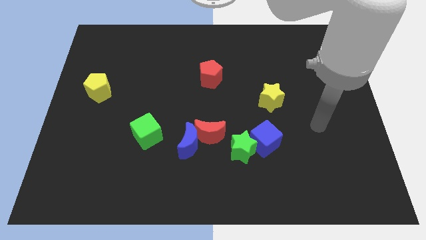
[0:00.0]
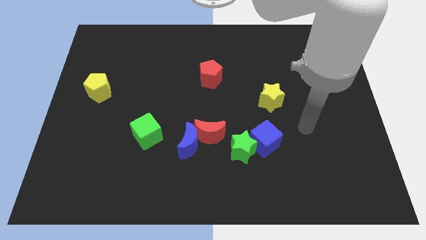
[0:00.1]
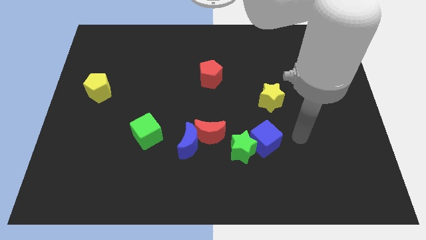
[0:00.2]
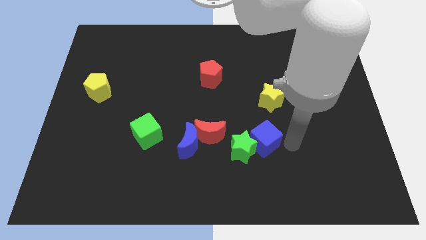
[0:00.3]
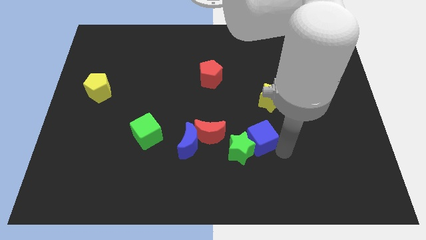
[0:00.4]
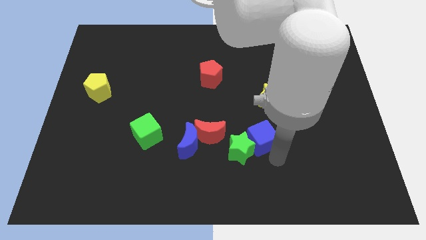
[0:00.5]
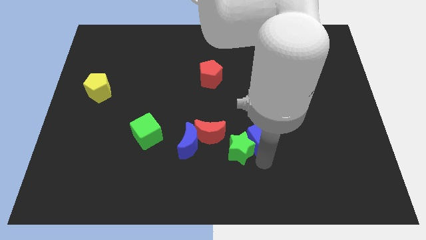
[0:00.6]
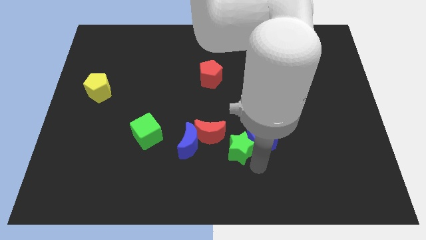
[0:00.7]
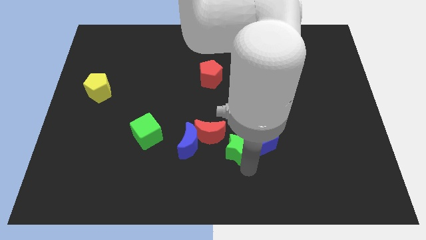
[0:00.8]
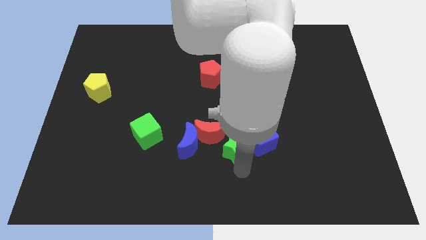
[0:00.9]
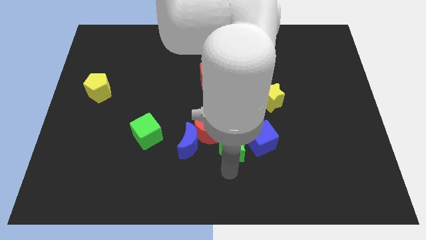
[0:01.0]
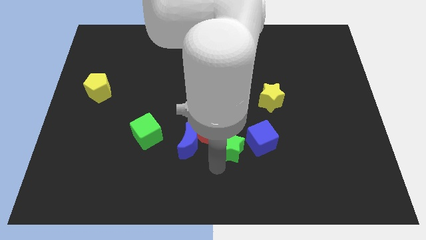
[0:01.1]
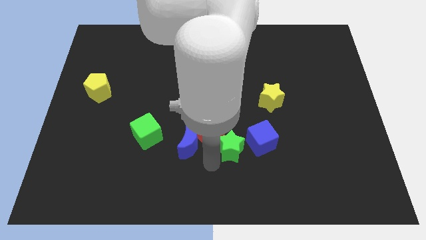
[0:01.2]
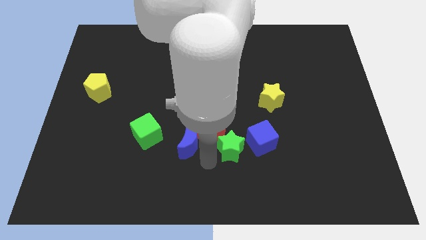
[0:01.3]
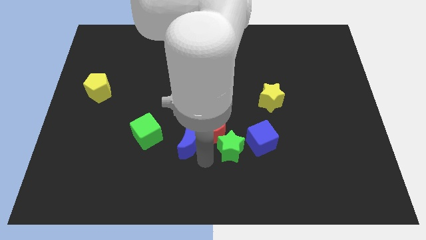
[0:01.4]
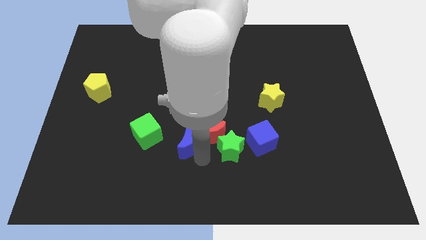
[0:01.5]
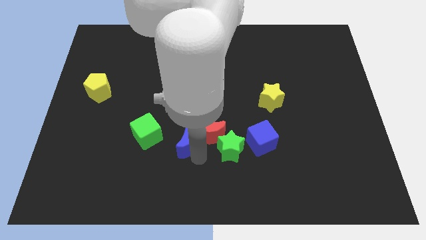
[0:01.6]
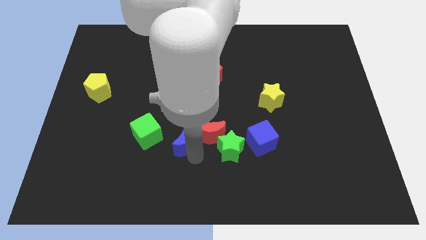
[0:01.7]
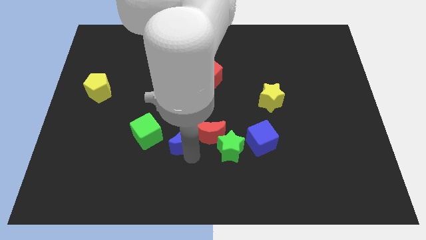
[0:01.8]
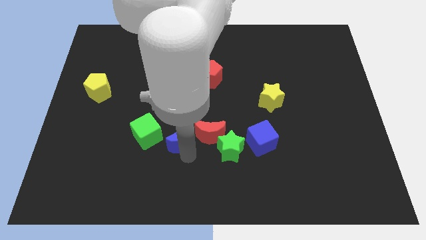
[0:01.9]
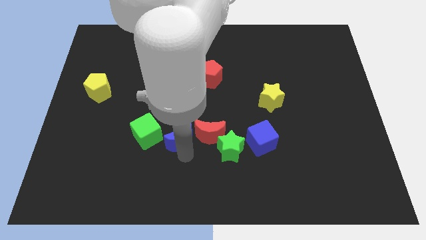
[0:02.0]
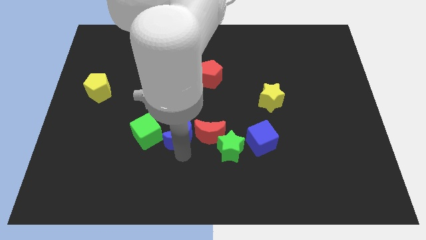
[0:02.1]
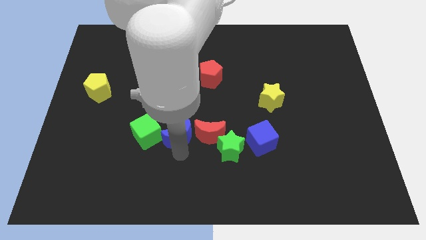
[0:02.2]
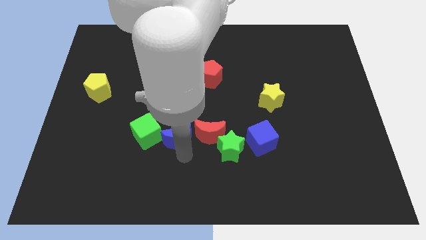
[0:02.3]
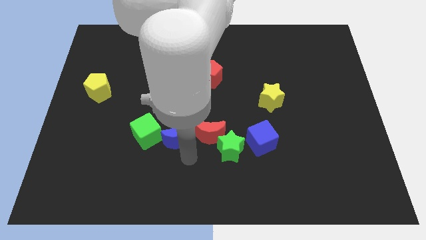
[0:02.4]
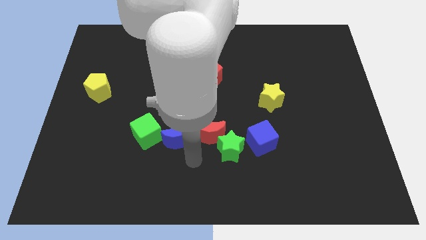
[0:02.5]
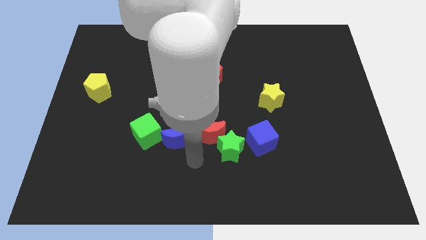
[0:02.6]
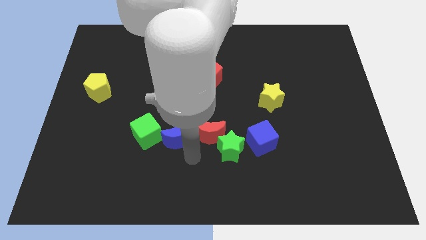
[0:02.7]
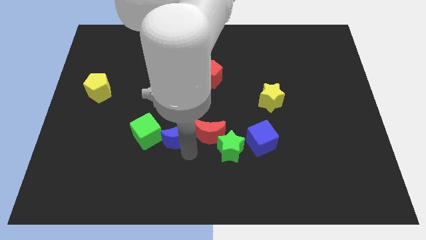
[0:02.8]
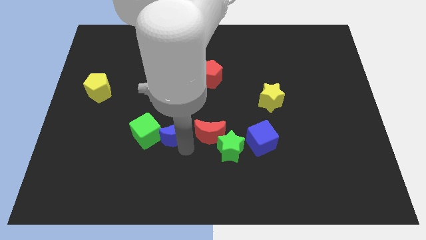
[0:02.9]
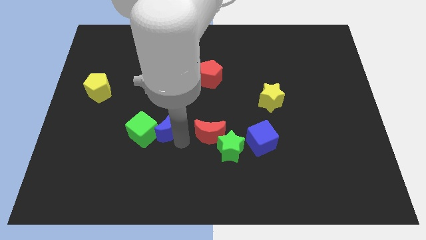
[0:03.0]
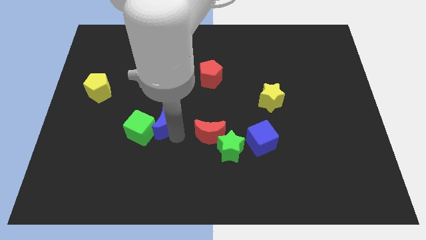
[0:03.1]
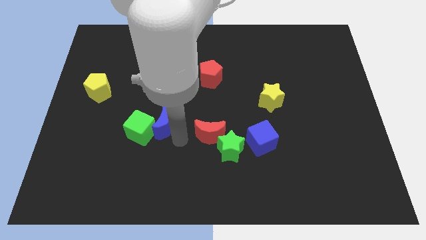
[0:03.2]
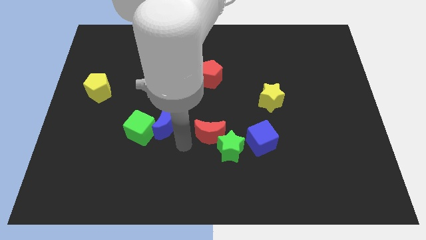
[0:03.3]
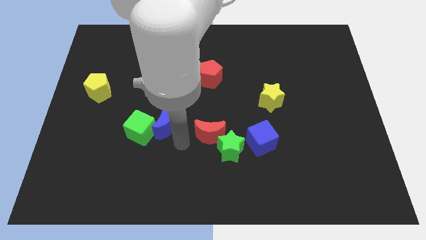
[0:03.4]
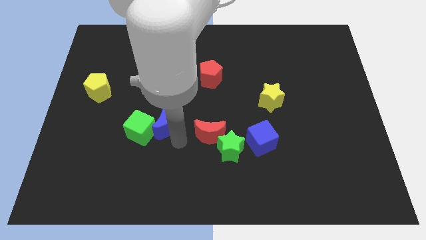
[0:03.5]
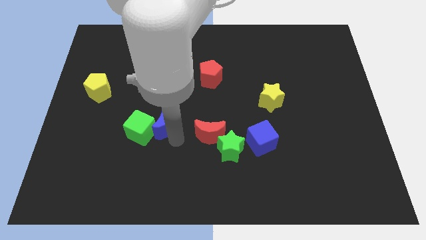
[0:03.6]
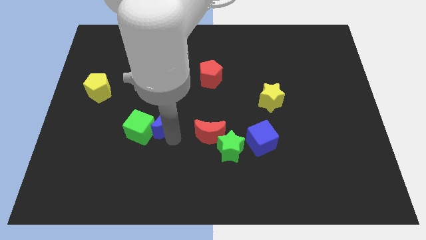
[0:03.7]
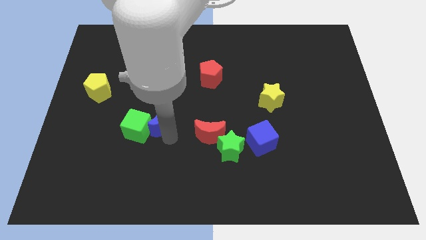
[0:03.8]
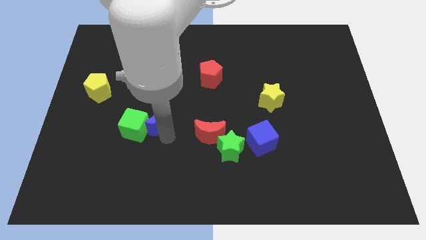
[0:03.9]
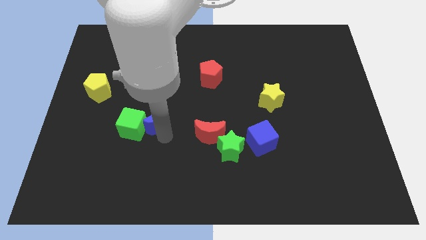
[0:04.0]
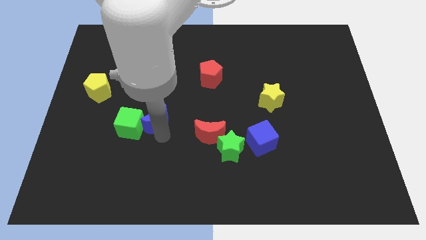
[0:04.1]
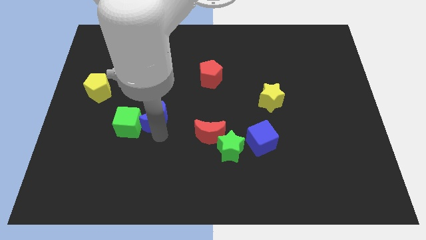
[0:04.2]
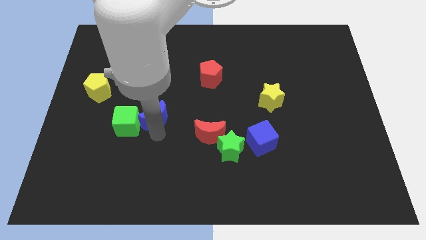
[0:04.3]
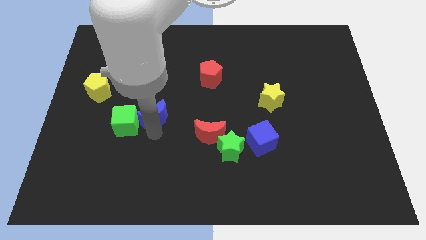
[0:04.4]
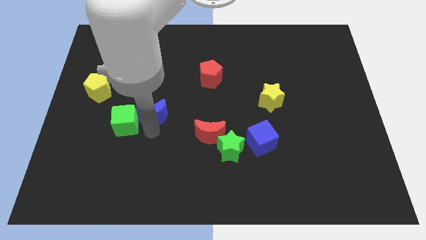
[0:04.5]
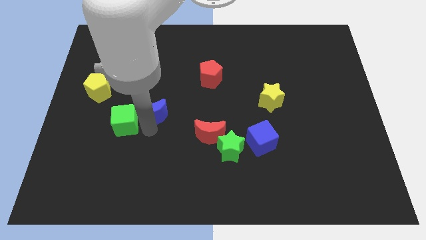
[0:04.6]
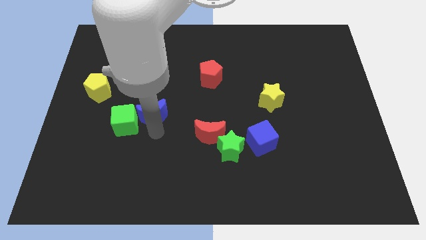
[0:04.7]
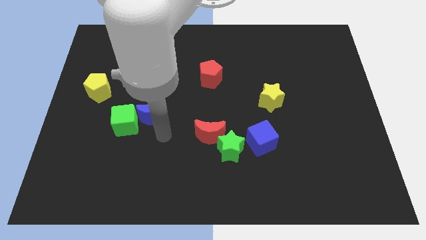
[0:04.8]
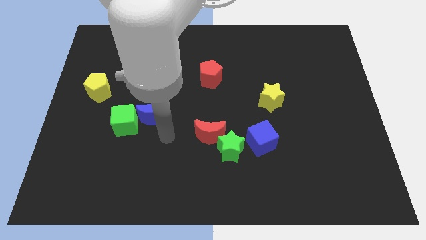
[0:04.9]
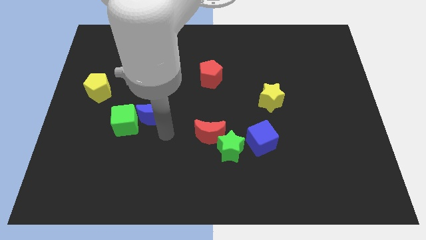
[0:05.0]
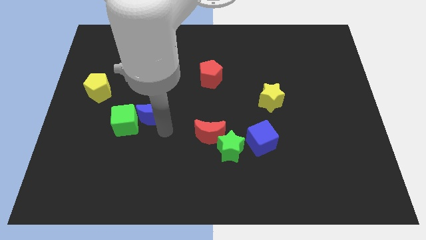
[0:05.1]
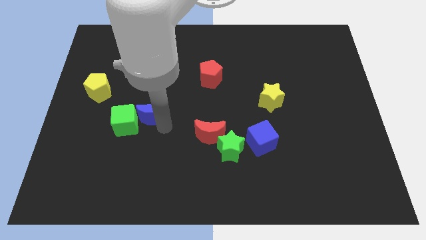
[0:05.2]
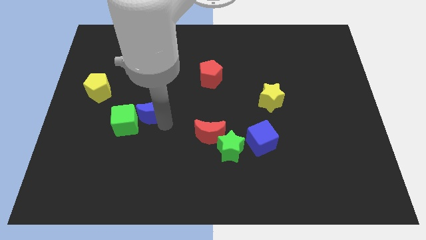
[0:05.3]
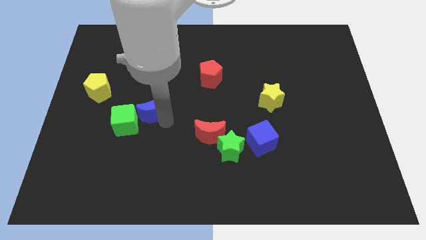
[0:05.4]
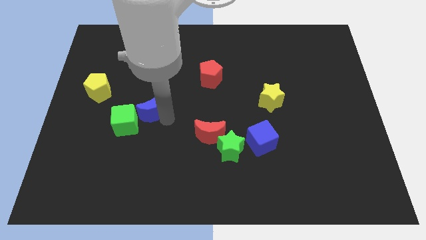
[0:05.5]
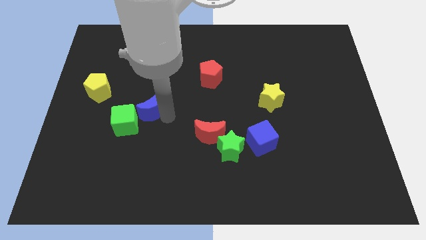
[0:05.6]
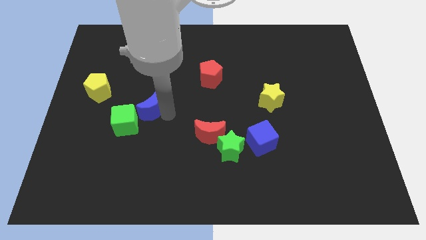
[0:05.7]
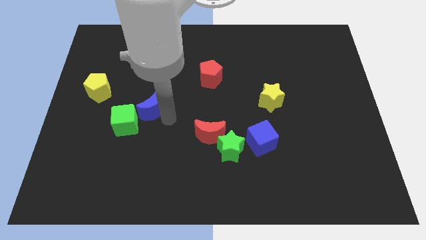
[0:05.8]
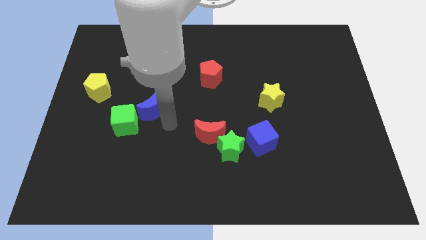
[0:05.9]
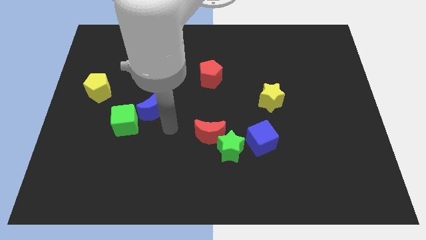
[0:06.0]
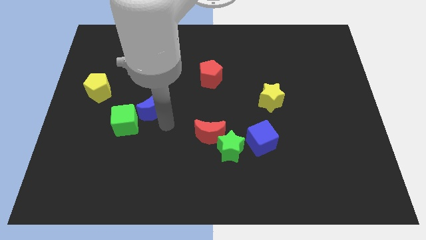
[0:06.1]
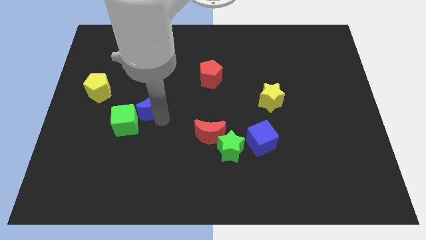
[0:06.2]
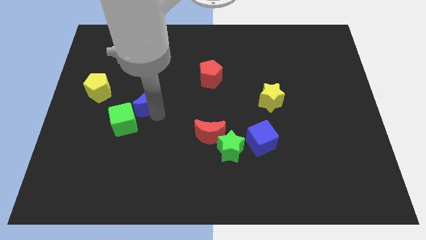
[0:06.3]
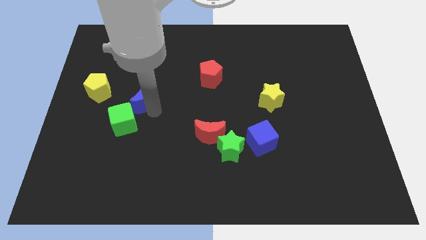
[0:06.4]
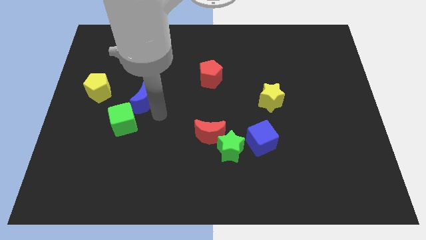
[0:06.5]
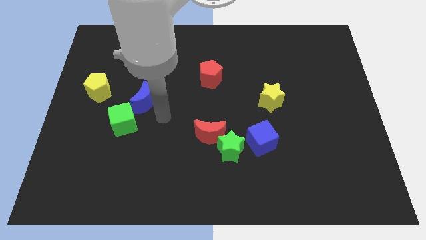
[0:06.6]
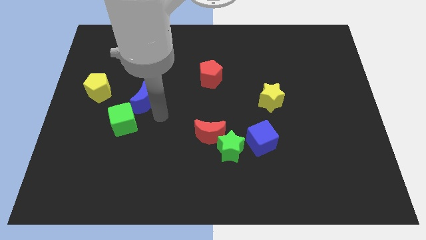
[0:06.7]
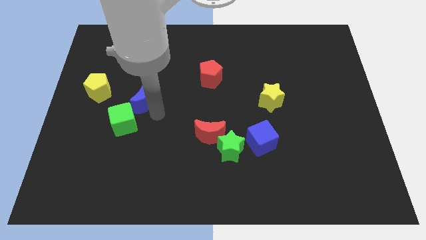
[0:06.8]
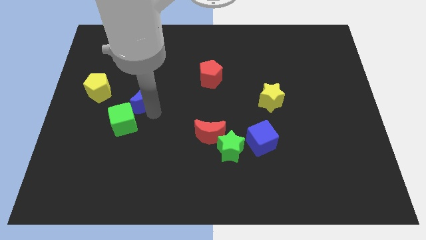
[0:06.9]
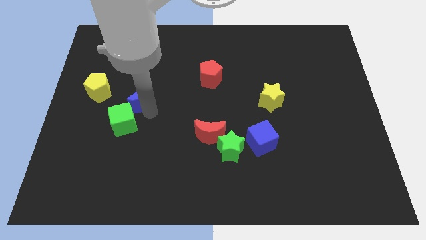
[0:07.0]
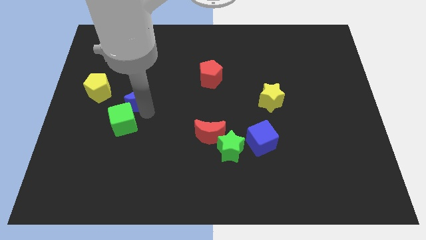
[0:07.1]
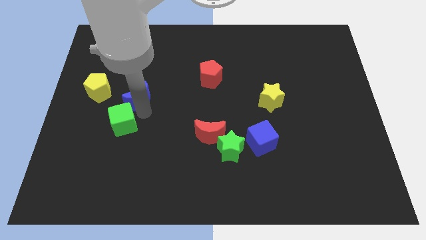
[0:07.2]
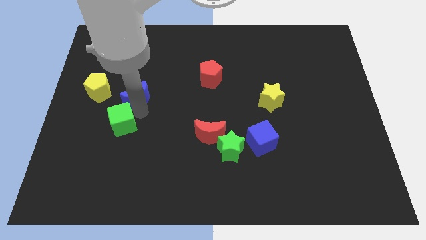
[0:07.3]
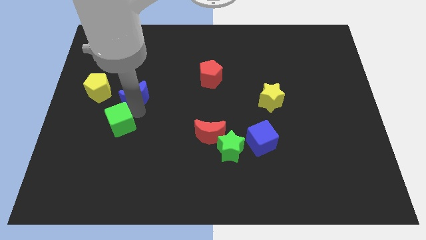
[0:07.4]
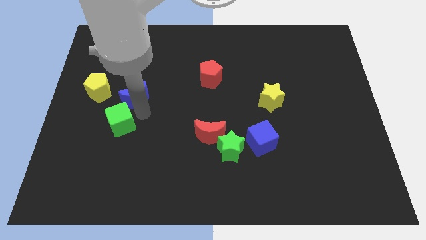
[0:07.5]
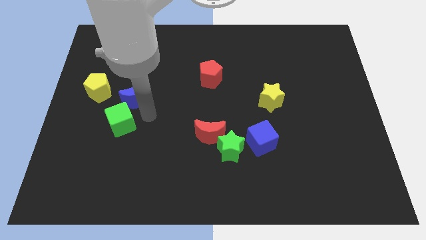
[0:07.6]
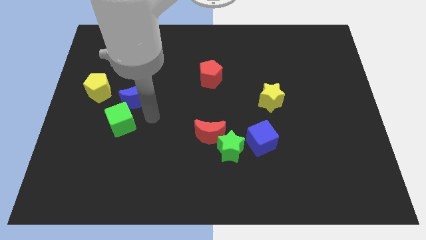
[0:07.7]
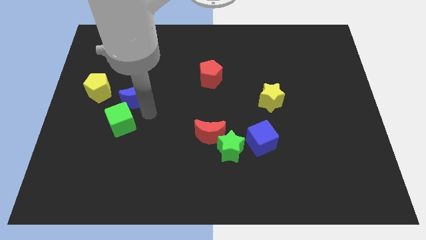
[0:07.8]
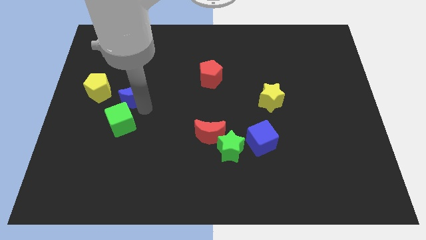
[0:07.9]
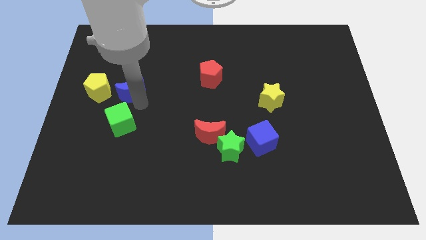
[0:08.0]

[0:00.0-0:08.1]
push the blue moon diagonally upwards and to the left
